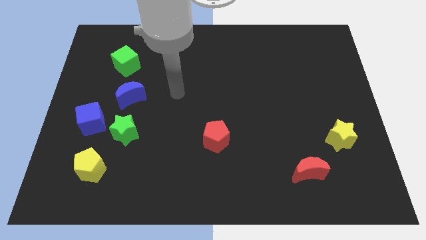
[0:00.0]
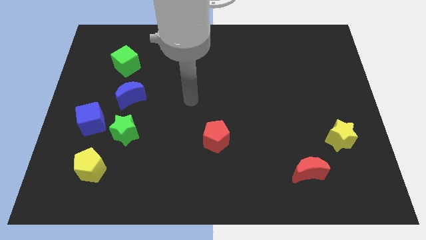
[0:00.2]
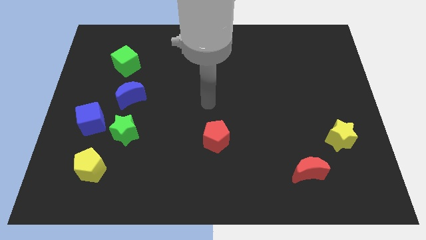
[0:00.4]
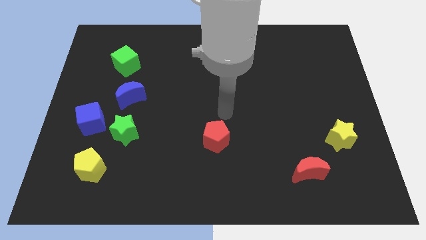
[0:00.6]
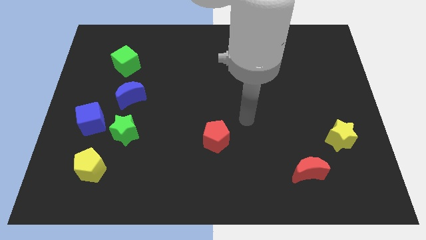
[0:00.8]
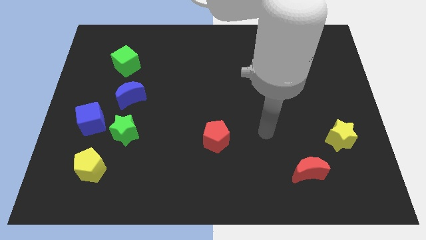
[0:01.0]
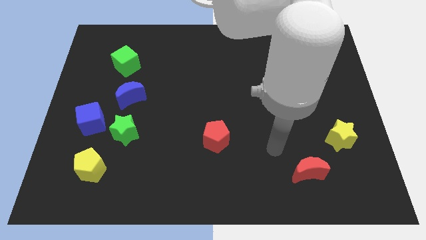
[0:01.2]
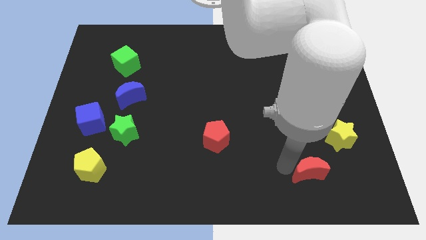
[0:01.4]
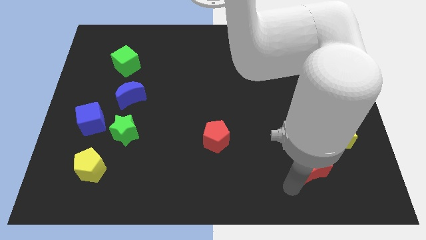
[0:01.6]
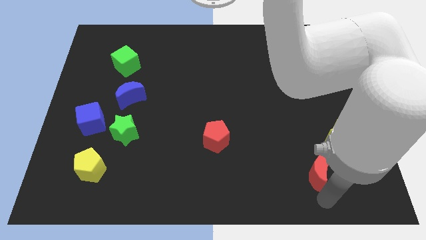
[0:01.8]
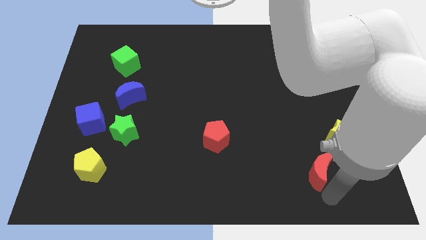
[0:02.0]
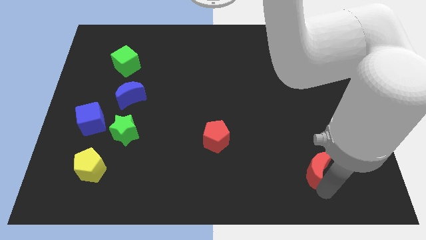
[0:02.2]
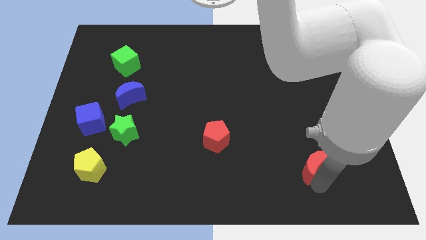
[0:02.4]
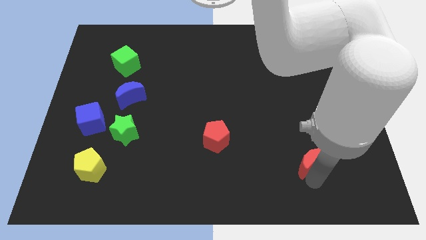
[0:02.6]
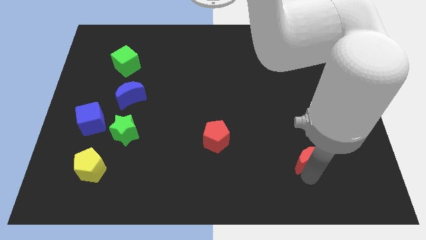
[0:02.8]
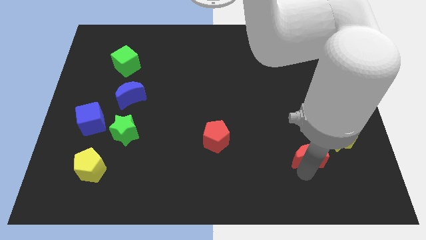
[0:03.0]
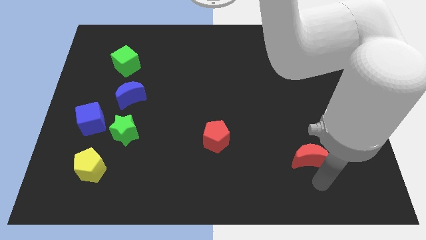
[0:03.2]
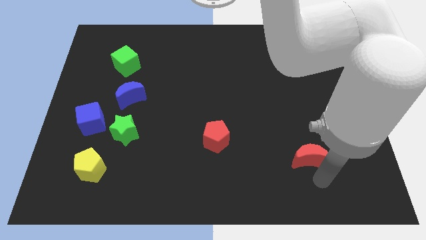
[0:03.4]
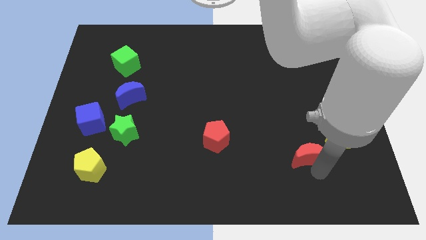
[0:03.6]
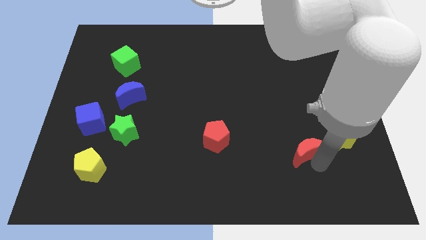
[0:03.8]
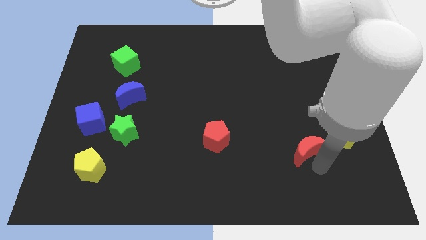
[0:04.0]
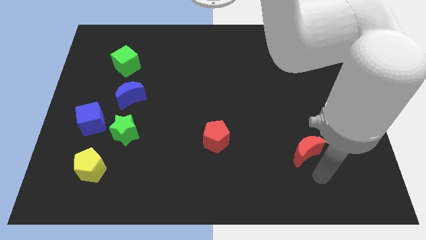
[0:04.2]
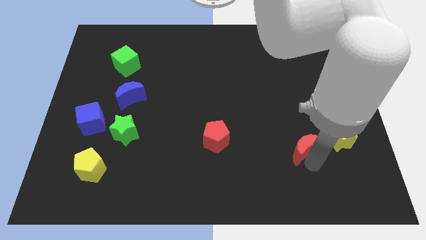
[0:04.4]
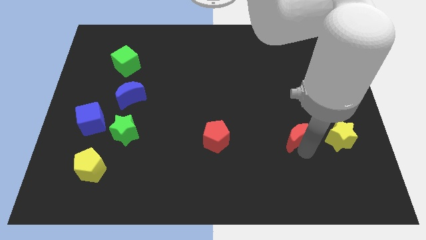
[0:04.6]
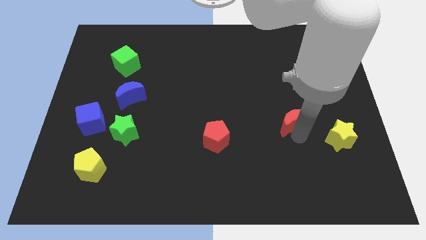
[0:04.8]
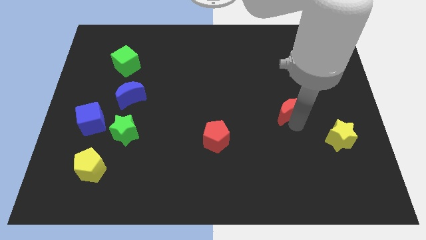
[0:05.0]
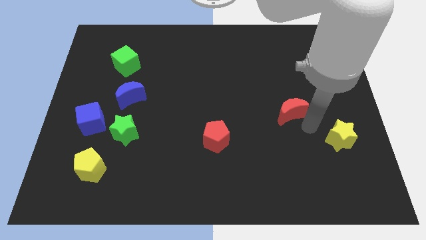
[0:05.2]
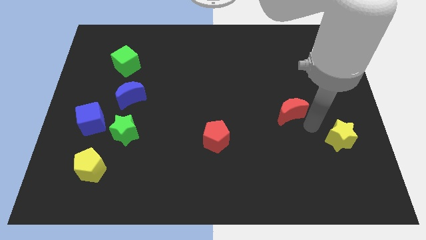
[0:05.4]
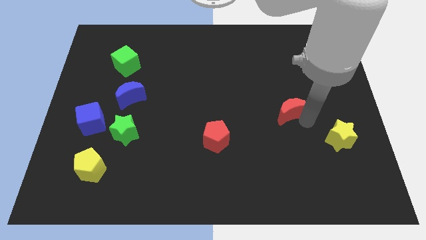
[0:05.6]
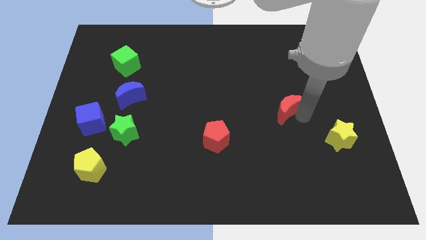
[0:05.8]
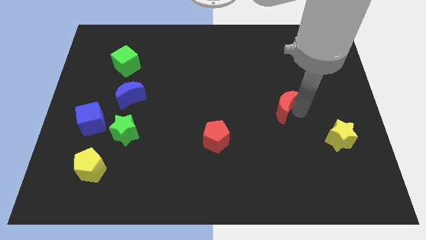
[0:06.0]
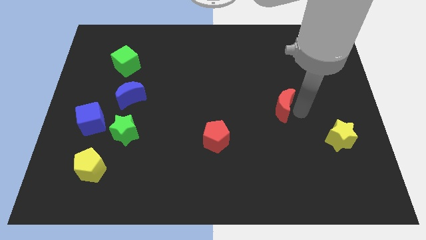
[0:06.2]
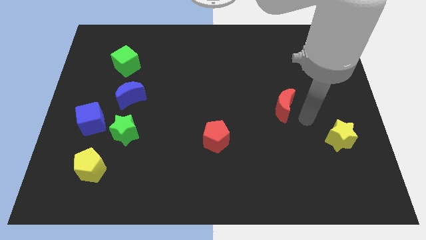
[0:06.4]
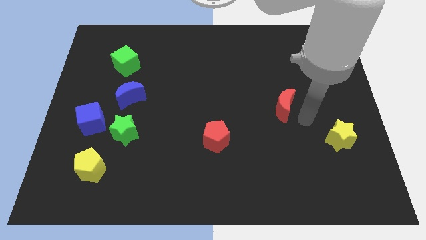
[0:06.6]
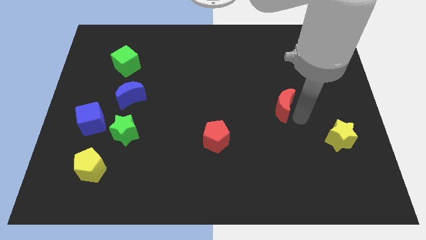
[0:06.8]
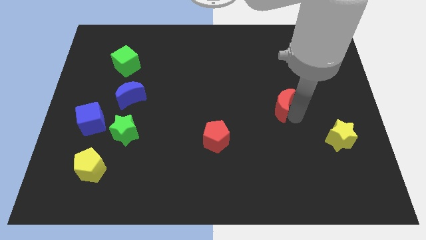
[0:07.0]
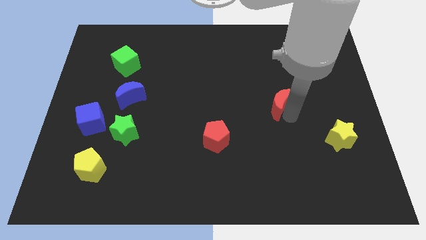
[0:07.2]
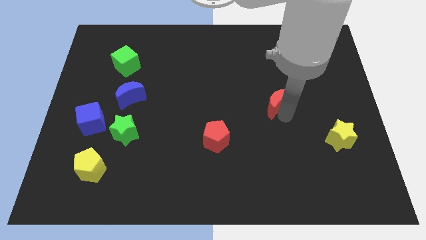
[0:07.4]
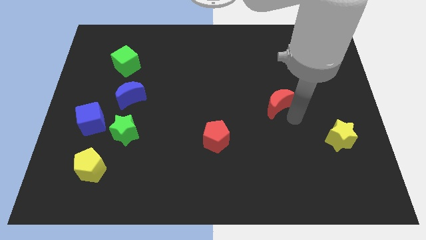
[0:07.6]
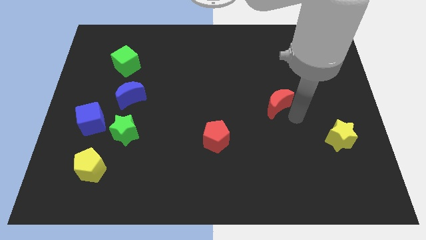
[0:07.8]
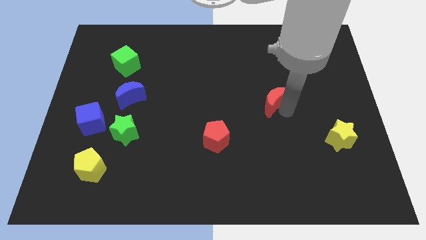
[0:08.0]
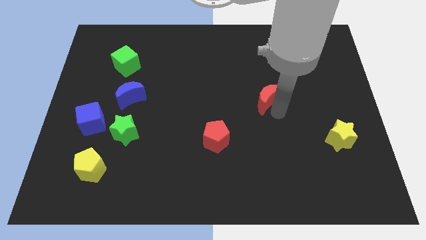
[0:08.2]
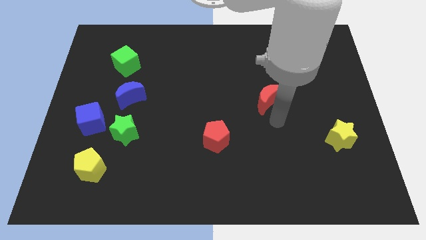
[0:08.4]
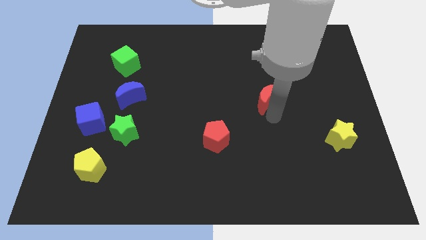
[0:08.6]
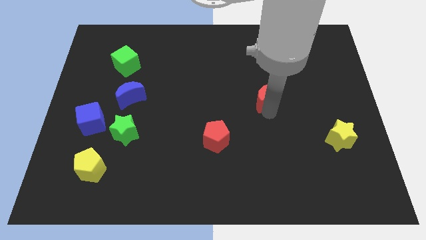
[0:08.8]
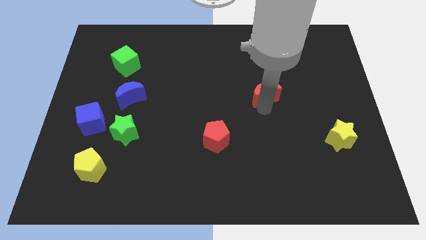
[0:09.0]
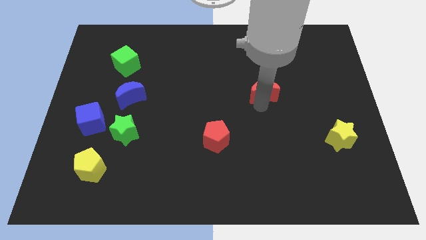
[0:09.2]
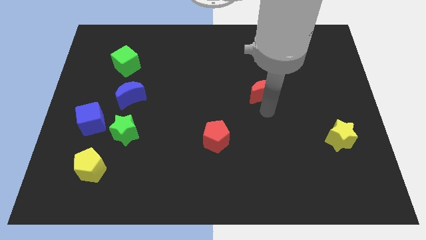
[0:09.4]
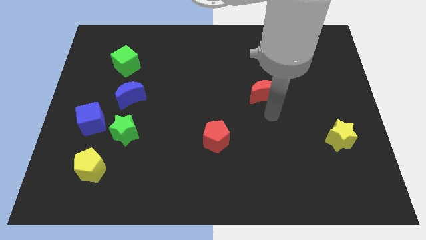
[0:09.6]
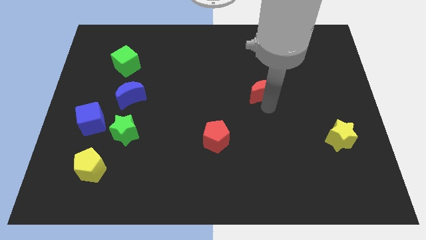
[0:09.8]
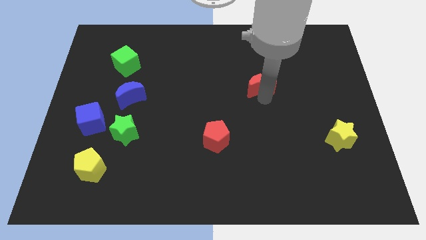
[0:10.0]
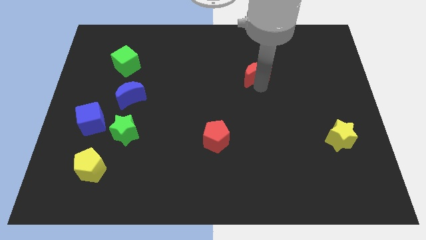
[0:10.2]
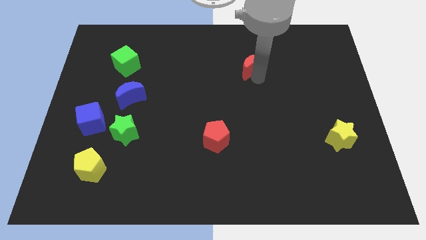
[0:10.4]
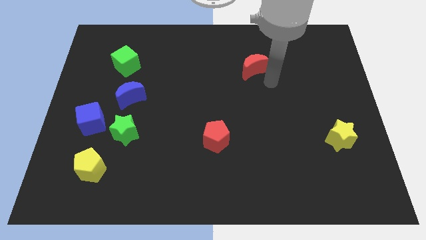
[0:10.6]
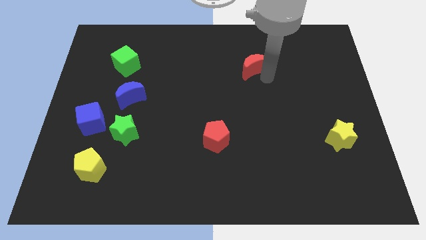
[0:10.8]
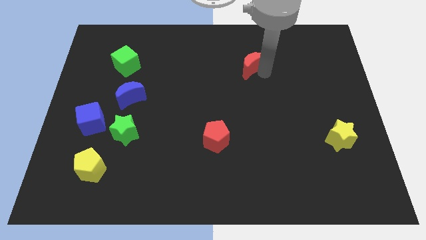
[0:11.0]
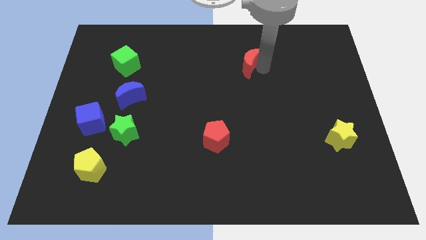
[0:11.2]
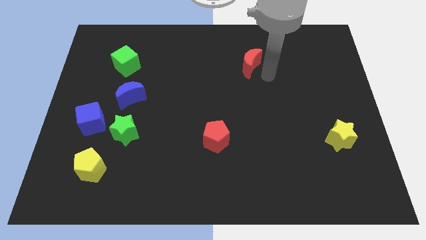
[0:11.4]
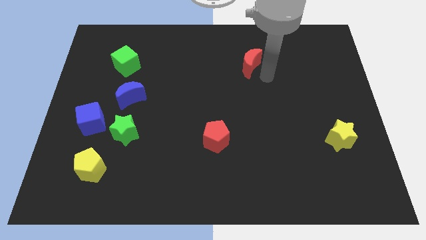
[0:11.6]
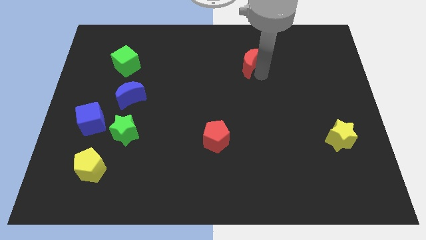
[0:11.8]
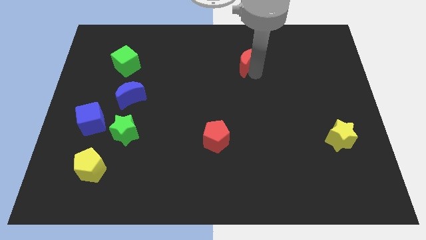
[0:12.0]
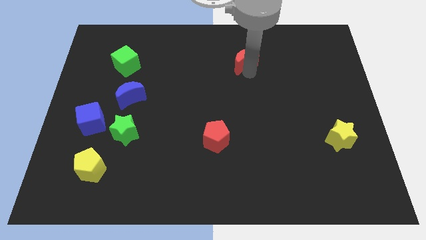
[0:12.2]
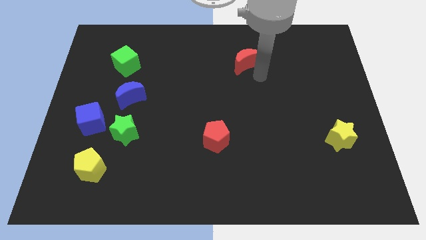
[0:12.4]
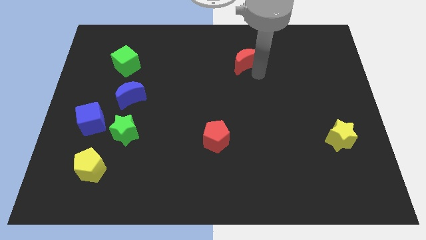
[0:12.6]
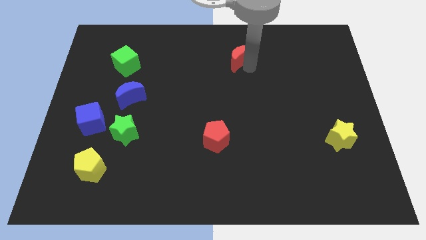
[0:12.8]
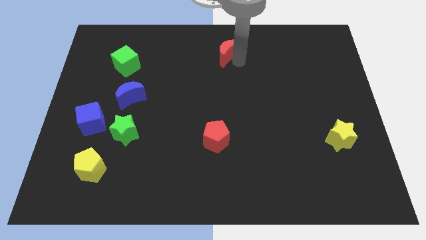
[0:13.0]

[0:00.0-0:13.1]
put the red moon to the top
